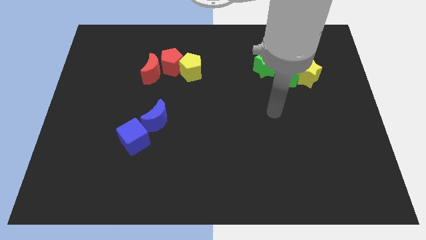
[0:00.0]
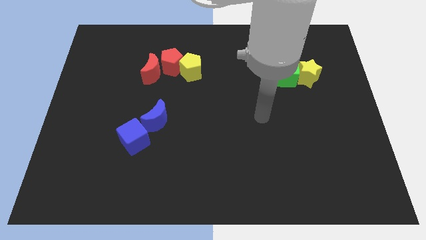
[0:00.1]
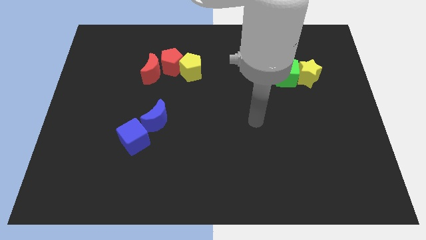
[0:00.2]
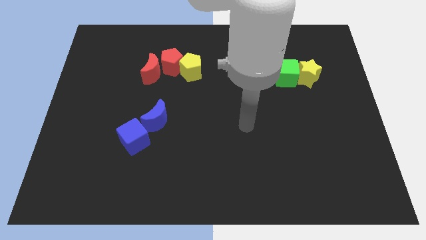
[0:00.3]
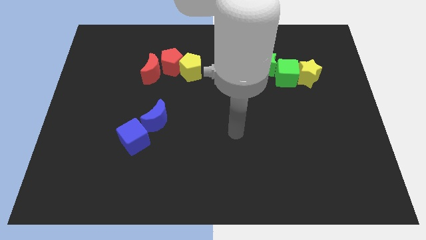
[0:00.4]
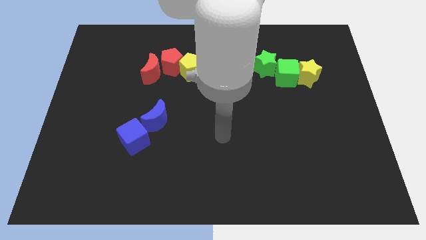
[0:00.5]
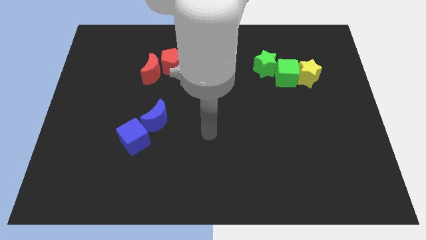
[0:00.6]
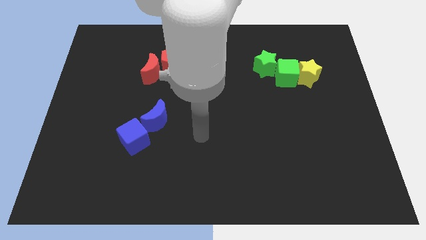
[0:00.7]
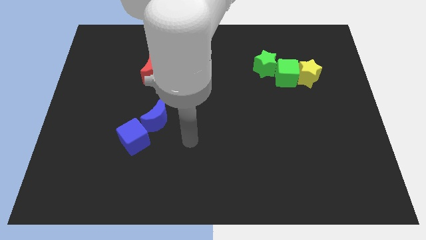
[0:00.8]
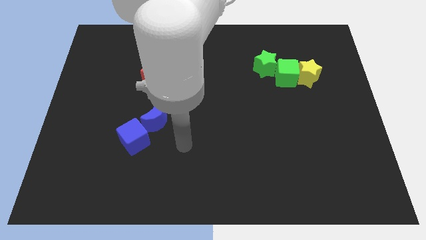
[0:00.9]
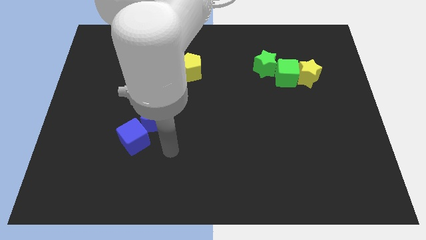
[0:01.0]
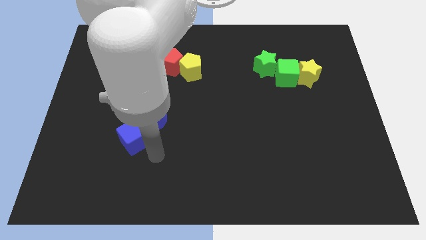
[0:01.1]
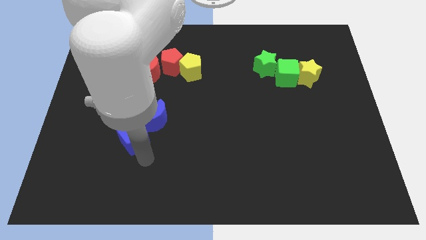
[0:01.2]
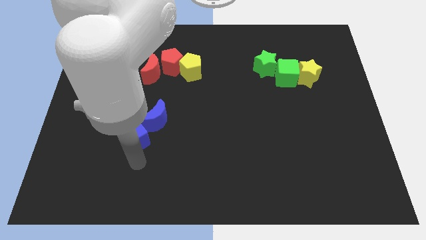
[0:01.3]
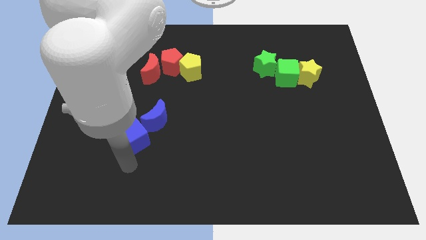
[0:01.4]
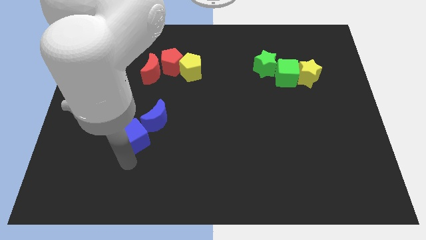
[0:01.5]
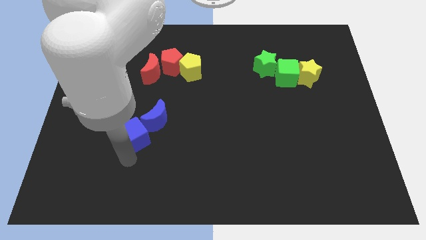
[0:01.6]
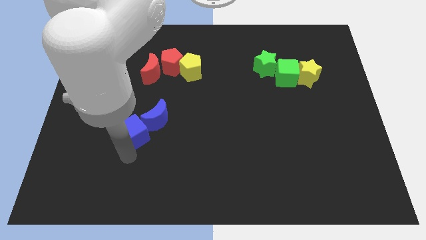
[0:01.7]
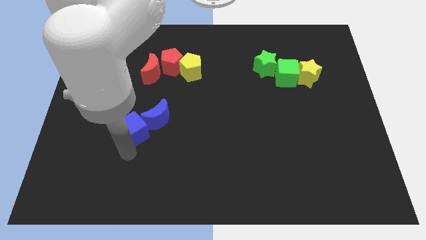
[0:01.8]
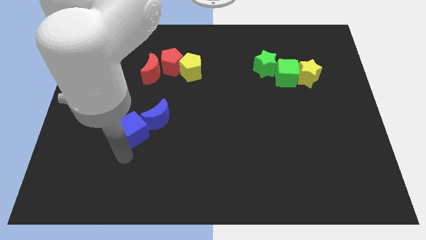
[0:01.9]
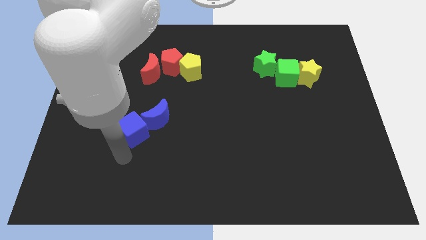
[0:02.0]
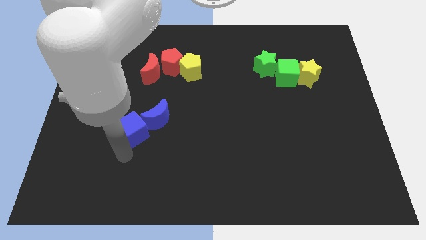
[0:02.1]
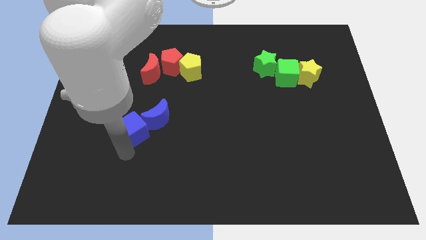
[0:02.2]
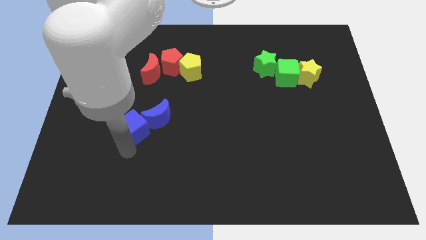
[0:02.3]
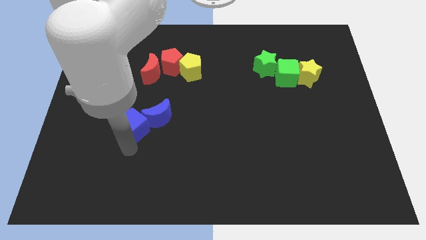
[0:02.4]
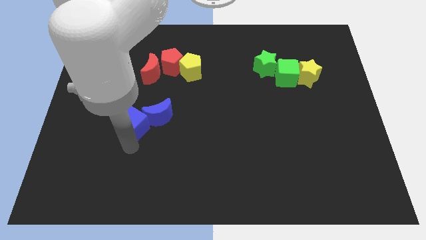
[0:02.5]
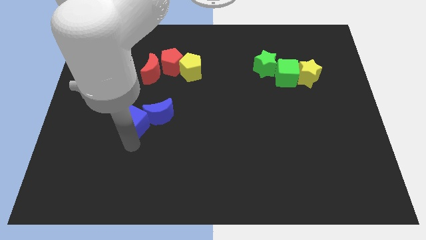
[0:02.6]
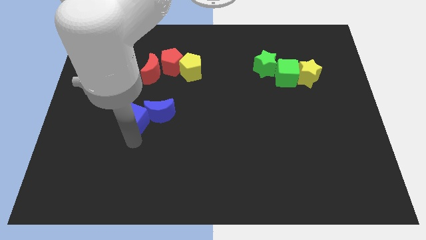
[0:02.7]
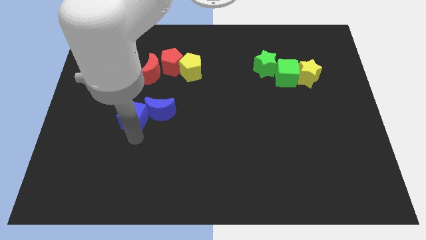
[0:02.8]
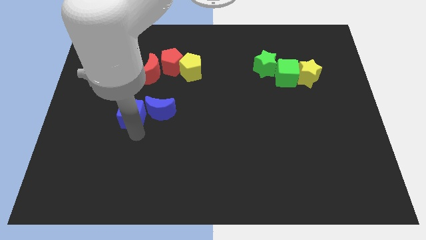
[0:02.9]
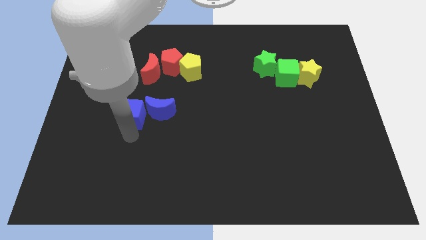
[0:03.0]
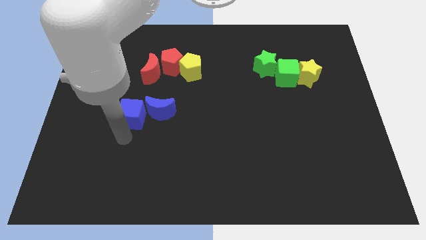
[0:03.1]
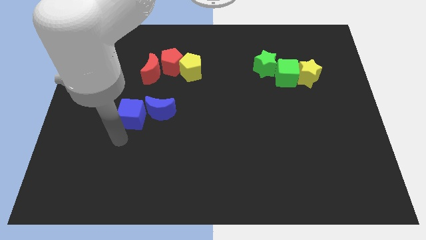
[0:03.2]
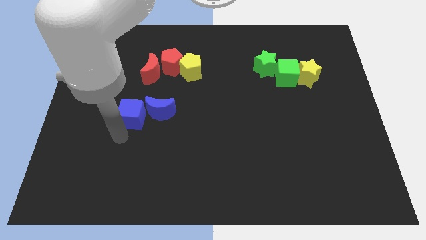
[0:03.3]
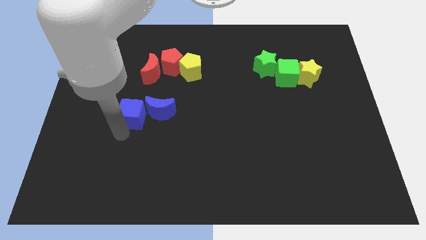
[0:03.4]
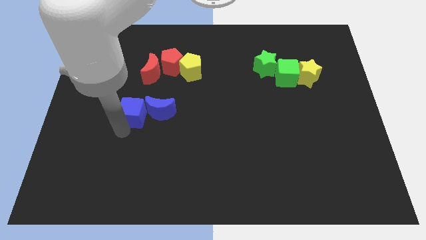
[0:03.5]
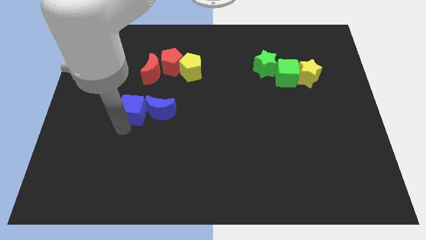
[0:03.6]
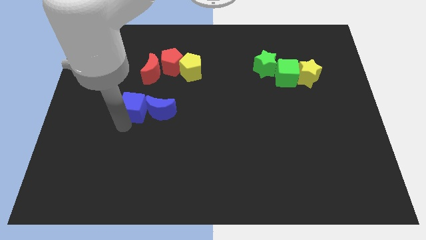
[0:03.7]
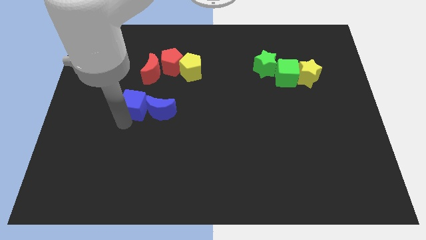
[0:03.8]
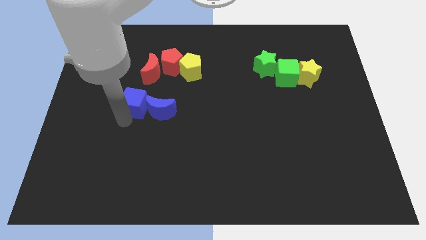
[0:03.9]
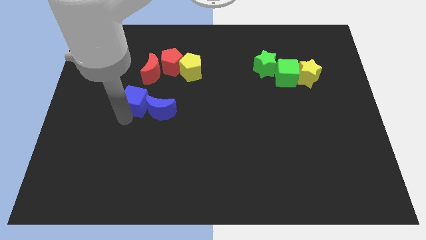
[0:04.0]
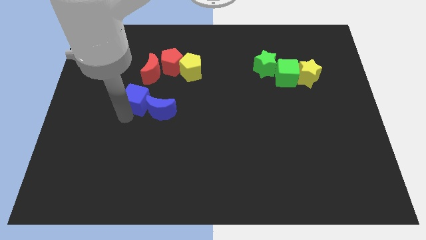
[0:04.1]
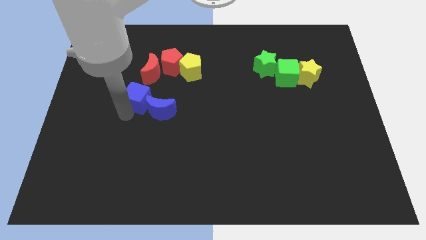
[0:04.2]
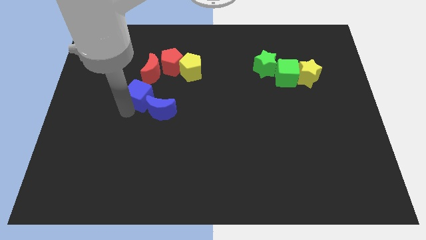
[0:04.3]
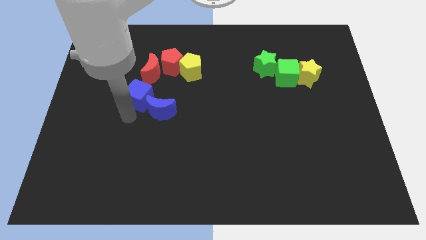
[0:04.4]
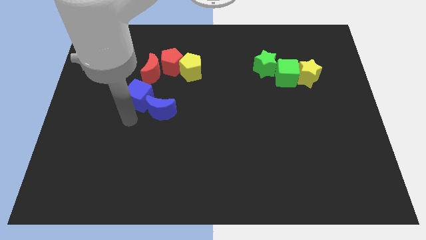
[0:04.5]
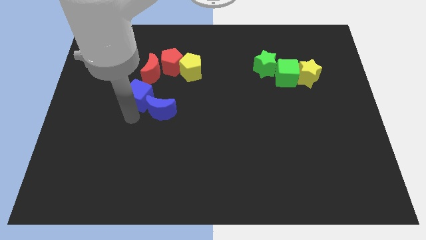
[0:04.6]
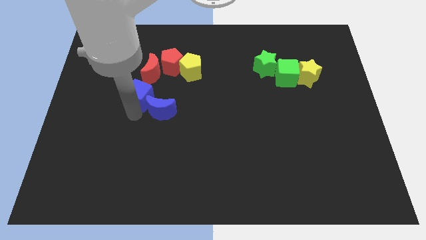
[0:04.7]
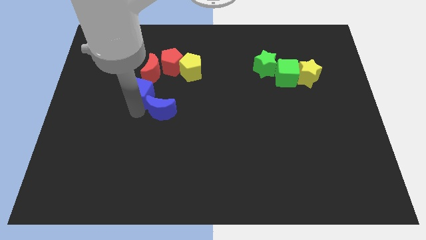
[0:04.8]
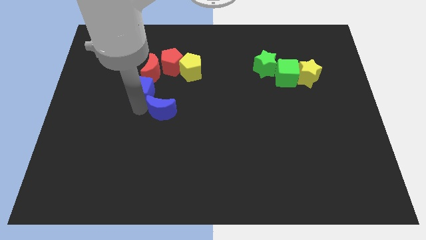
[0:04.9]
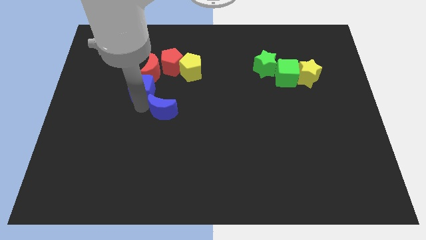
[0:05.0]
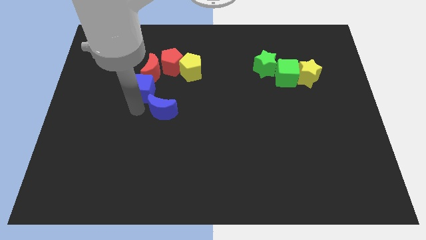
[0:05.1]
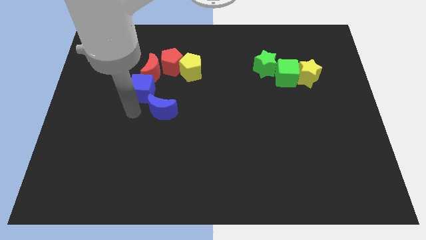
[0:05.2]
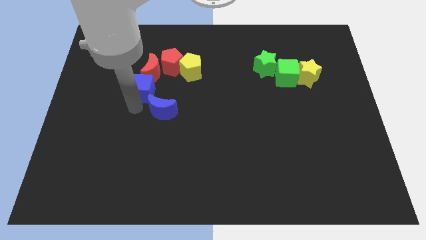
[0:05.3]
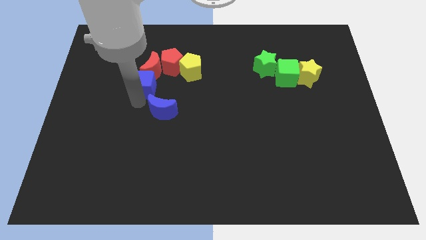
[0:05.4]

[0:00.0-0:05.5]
move the blue cube towards the red moon

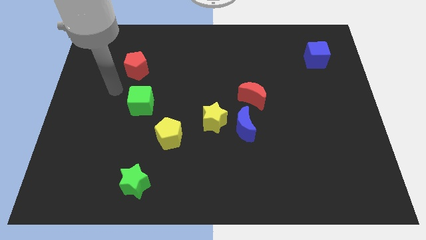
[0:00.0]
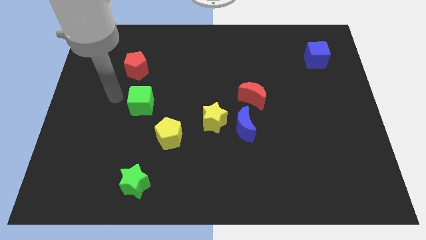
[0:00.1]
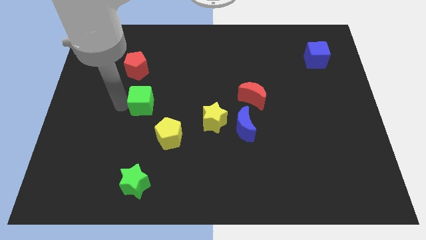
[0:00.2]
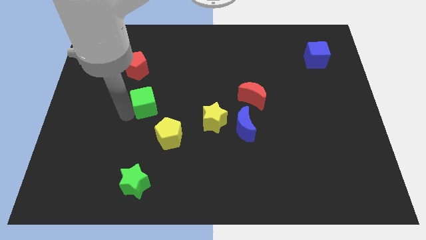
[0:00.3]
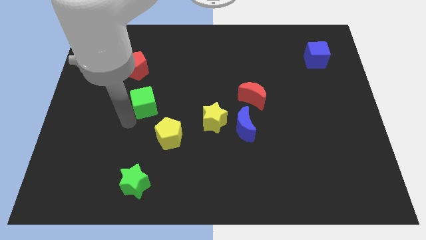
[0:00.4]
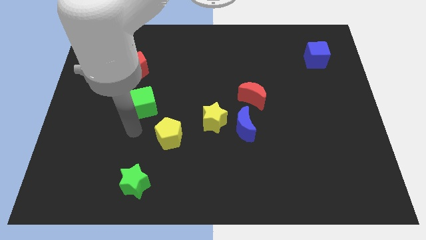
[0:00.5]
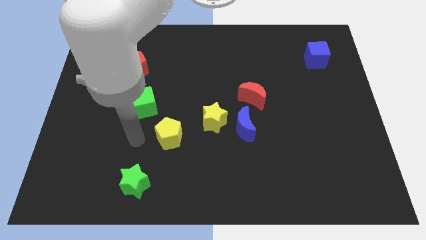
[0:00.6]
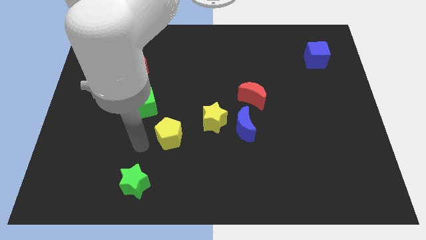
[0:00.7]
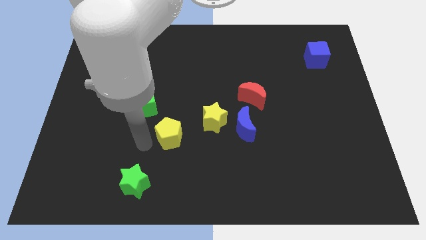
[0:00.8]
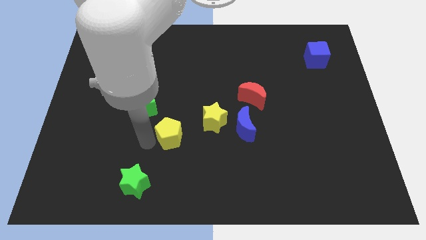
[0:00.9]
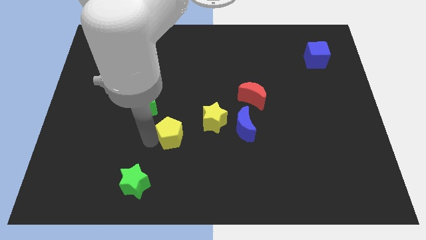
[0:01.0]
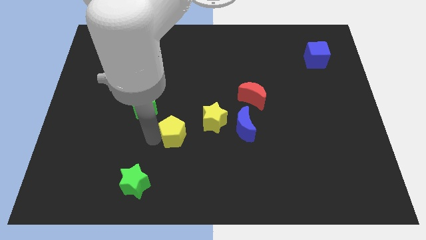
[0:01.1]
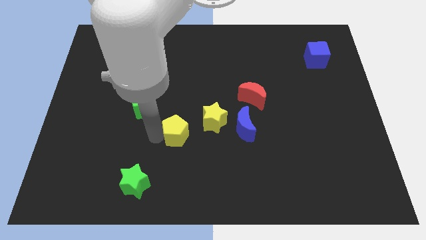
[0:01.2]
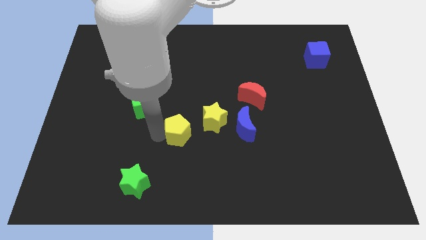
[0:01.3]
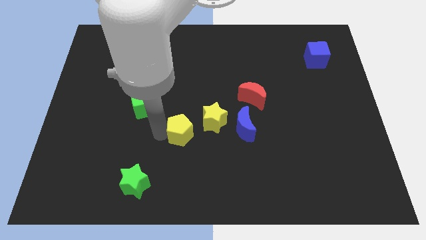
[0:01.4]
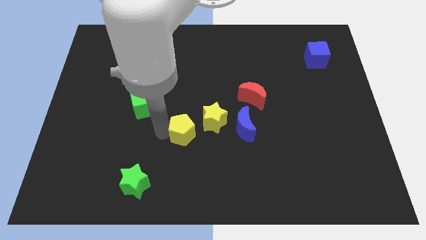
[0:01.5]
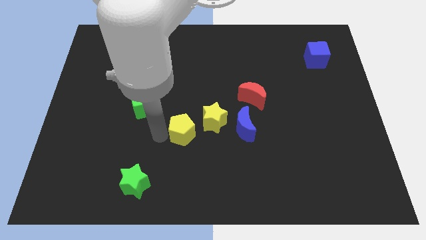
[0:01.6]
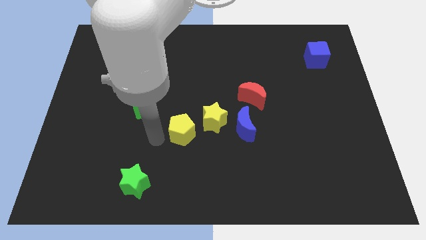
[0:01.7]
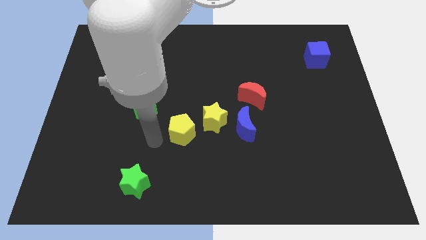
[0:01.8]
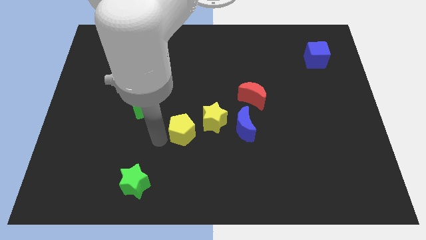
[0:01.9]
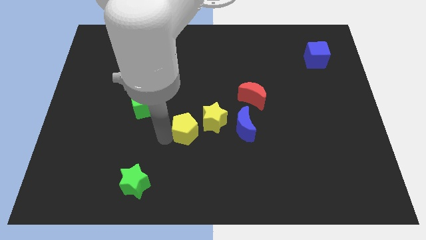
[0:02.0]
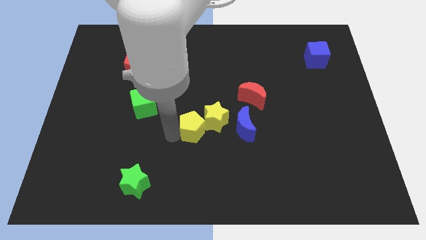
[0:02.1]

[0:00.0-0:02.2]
move the yellow pentagon close to the yellow star

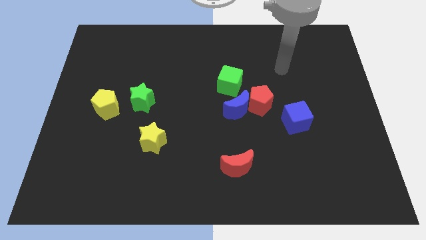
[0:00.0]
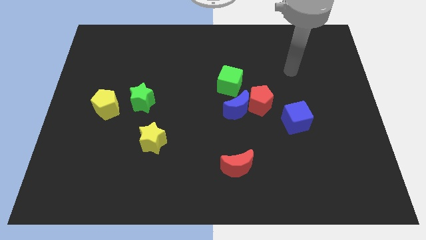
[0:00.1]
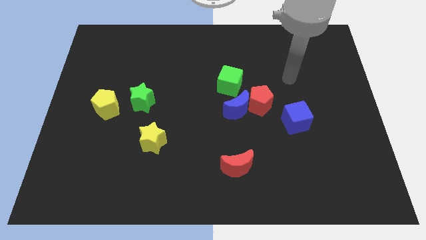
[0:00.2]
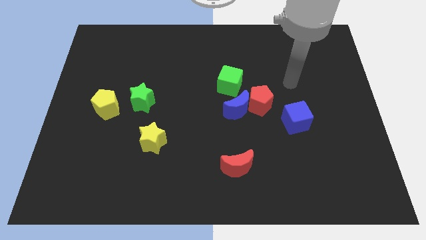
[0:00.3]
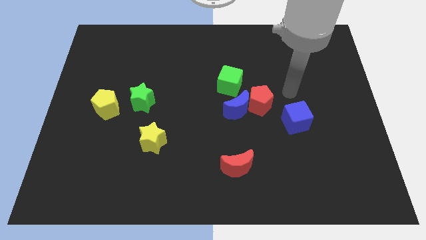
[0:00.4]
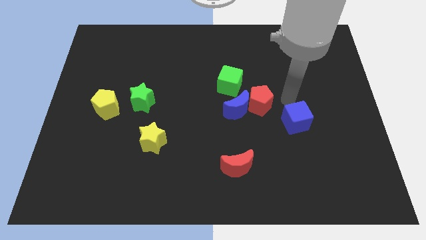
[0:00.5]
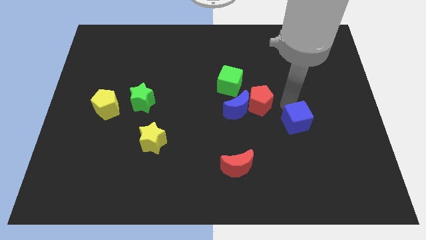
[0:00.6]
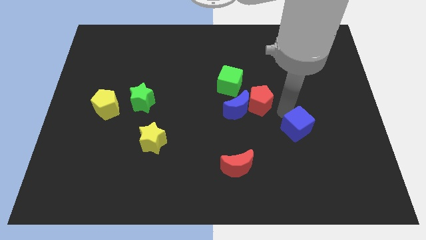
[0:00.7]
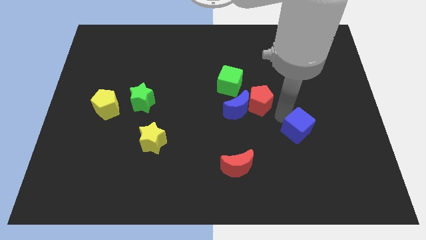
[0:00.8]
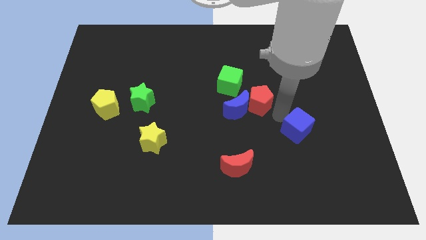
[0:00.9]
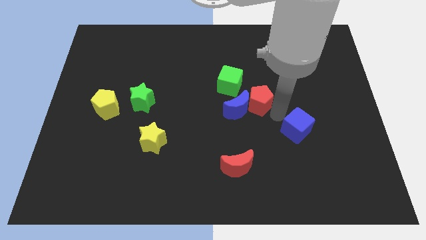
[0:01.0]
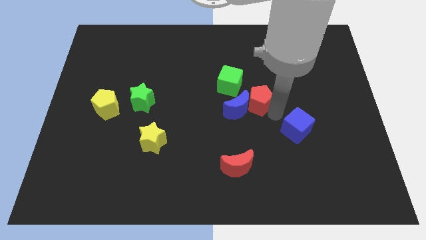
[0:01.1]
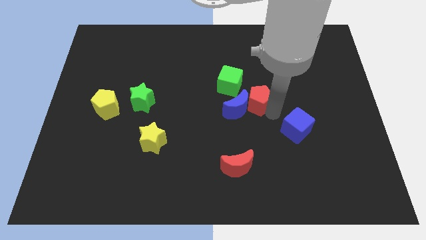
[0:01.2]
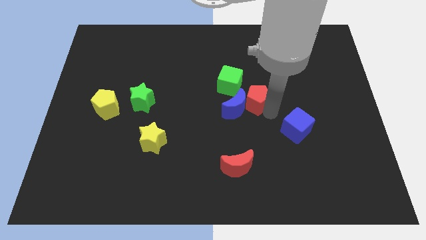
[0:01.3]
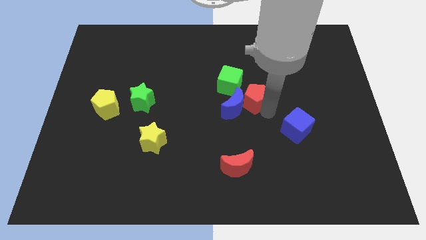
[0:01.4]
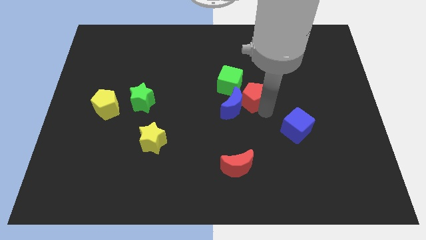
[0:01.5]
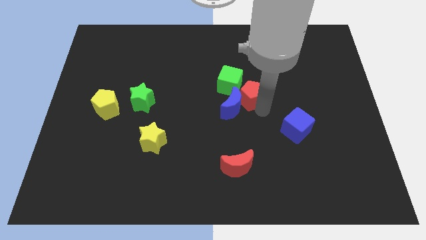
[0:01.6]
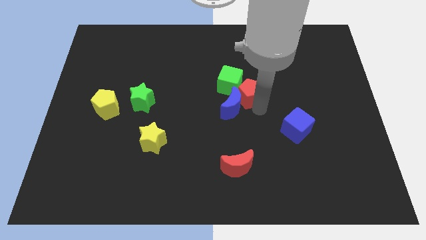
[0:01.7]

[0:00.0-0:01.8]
push the red pentagon next to the green cube
